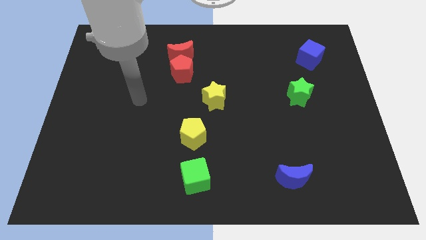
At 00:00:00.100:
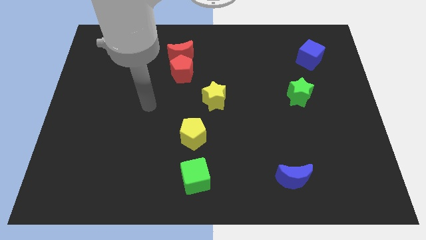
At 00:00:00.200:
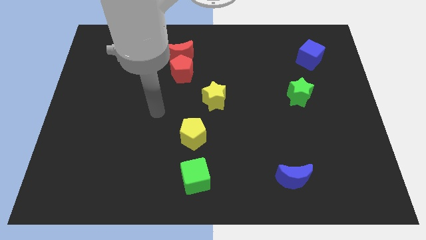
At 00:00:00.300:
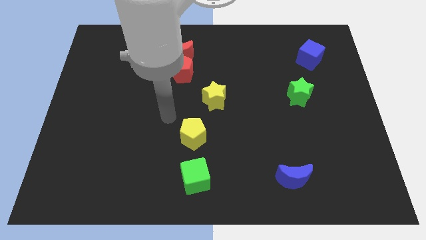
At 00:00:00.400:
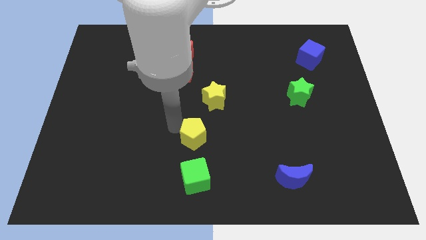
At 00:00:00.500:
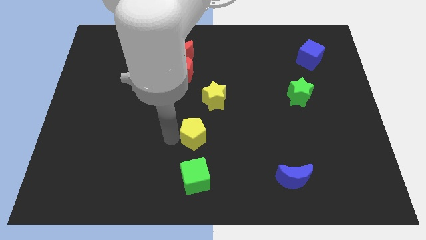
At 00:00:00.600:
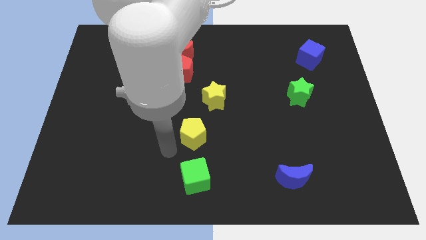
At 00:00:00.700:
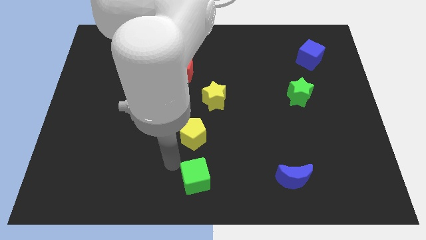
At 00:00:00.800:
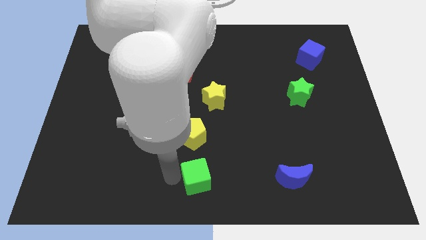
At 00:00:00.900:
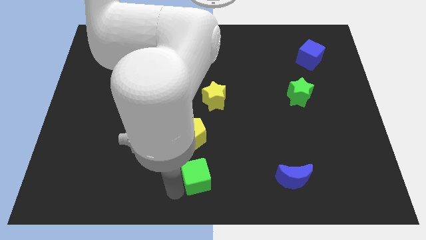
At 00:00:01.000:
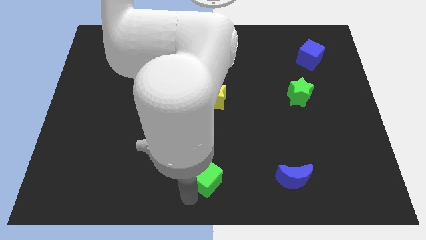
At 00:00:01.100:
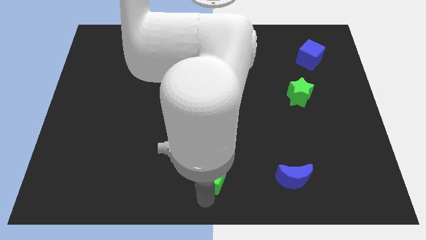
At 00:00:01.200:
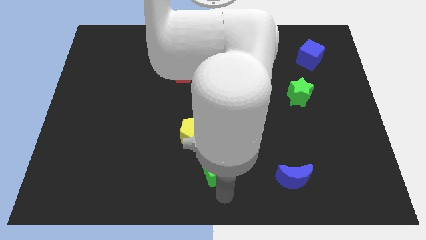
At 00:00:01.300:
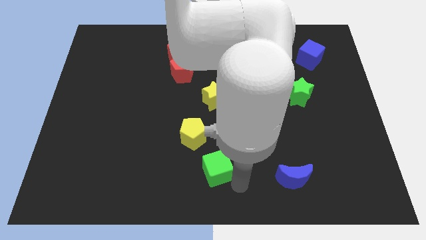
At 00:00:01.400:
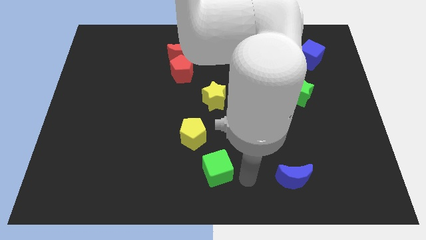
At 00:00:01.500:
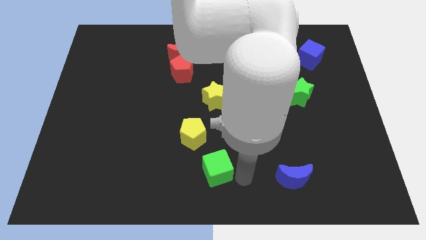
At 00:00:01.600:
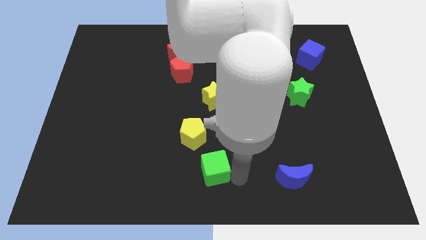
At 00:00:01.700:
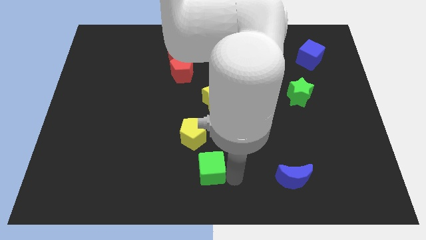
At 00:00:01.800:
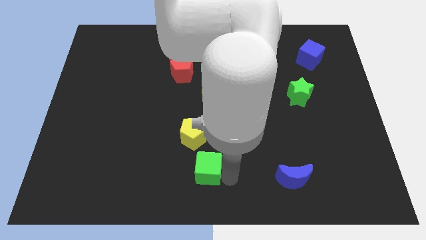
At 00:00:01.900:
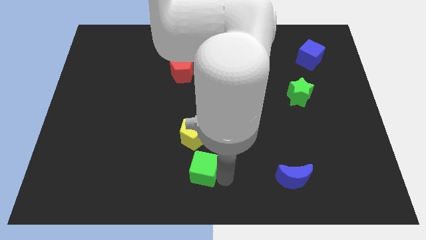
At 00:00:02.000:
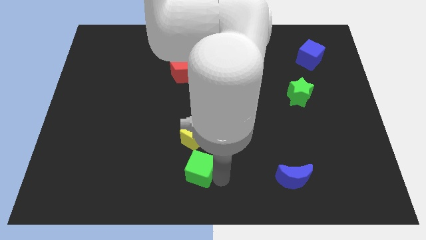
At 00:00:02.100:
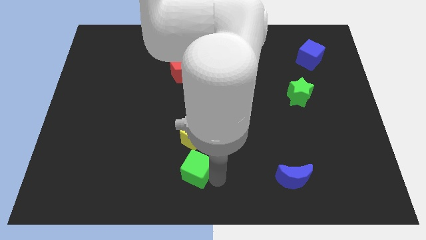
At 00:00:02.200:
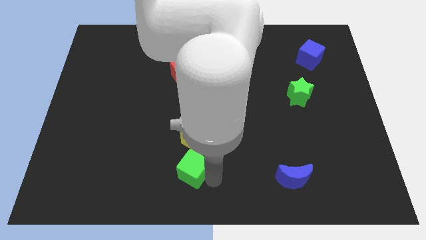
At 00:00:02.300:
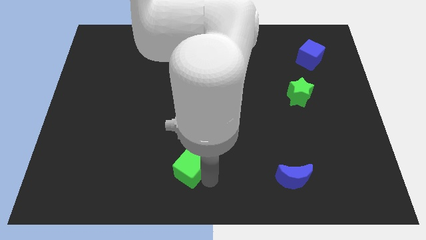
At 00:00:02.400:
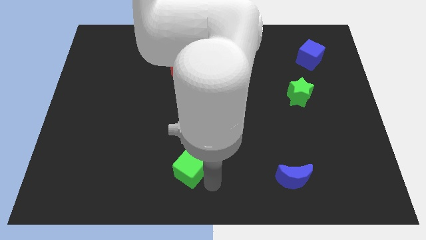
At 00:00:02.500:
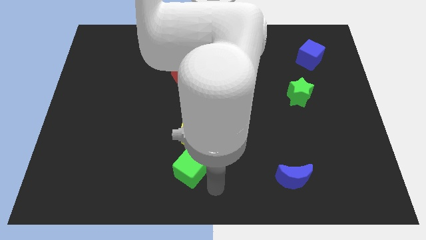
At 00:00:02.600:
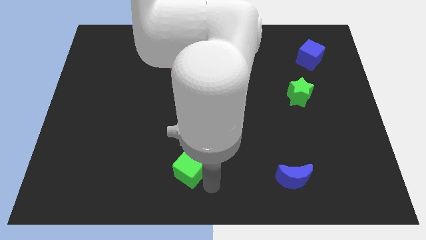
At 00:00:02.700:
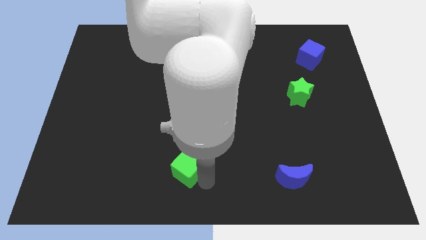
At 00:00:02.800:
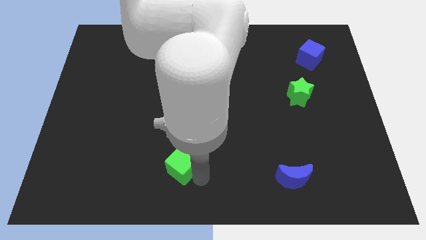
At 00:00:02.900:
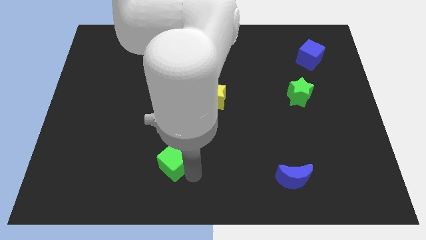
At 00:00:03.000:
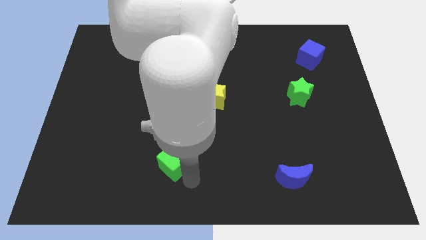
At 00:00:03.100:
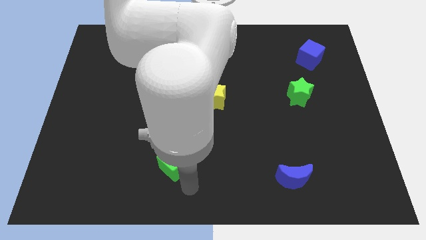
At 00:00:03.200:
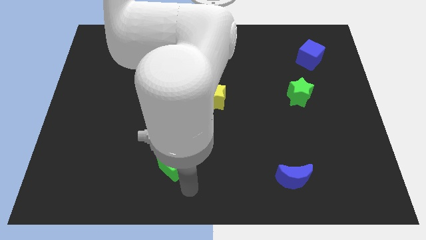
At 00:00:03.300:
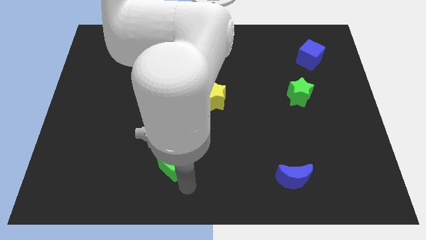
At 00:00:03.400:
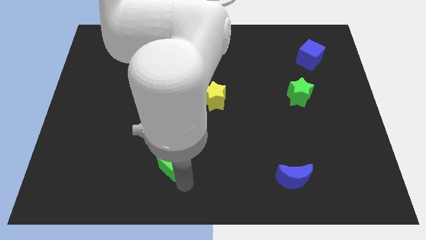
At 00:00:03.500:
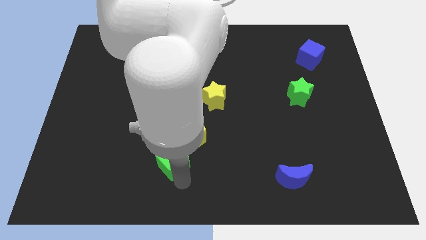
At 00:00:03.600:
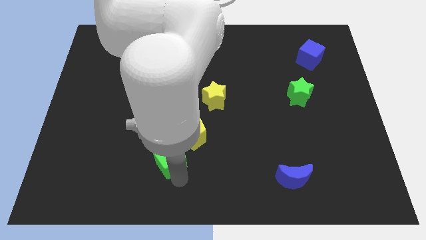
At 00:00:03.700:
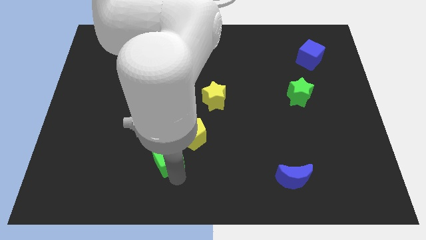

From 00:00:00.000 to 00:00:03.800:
slide the green cube a little upwards and left diagonally

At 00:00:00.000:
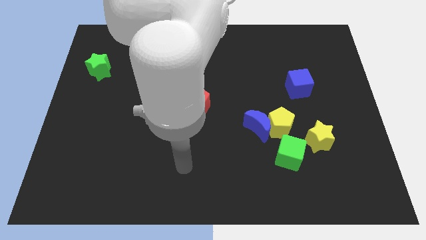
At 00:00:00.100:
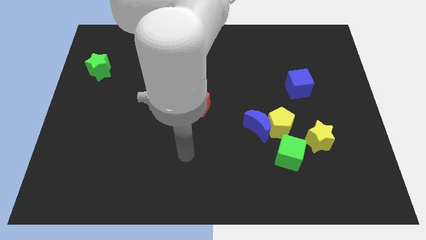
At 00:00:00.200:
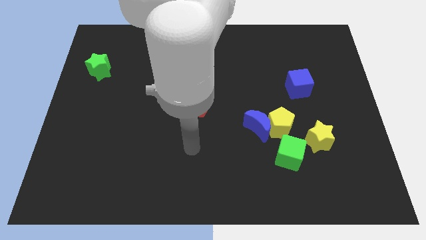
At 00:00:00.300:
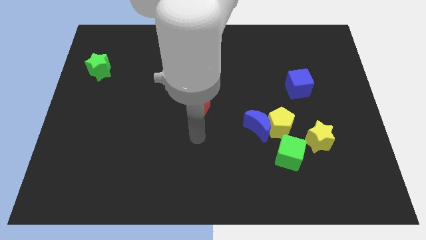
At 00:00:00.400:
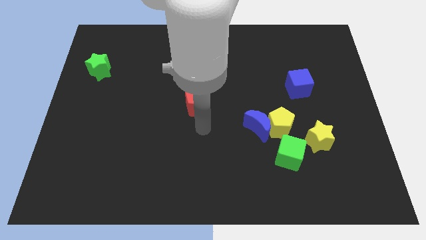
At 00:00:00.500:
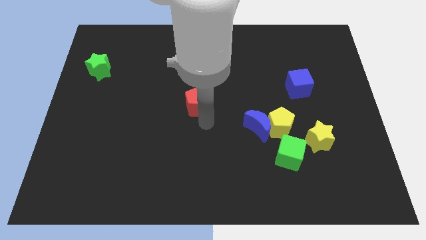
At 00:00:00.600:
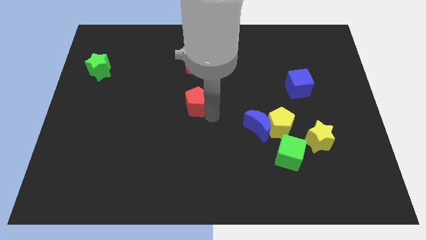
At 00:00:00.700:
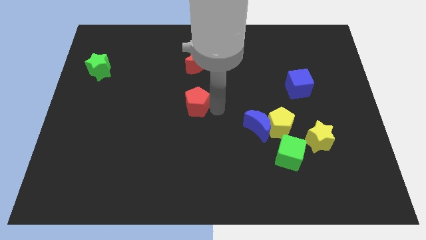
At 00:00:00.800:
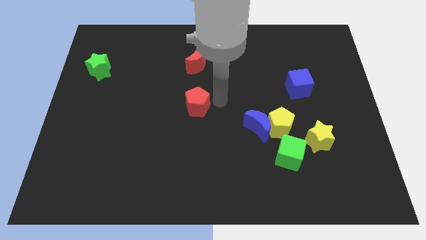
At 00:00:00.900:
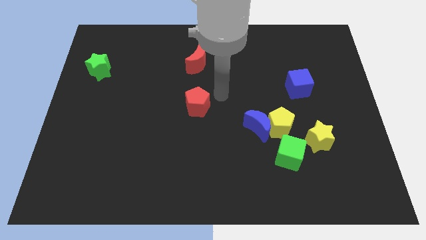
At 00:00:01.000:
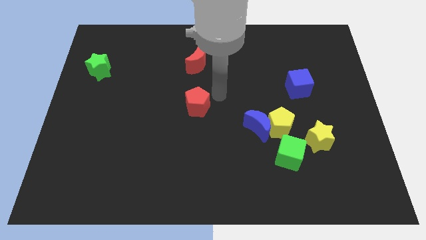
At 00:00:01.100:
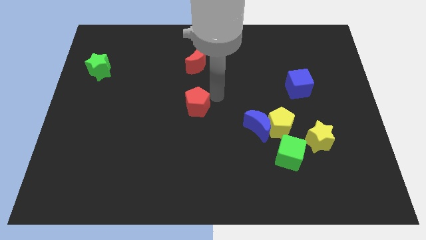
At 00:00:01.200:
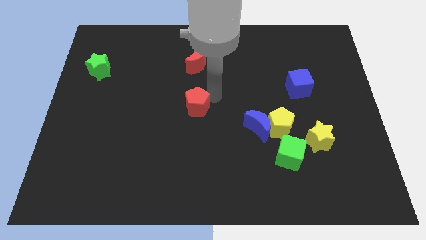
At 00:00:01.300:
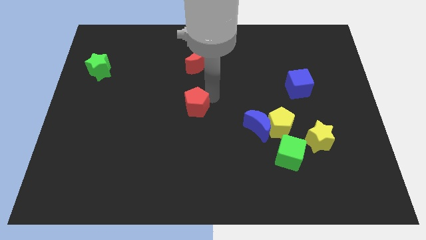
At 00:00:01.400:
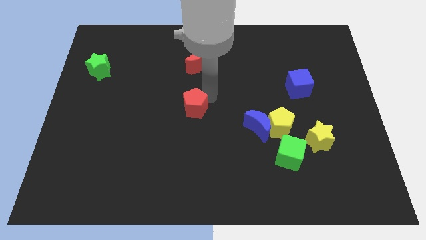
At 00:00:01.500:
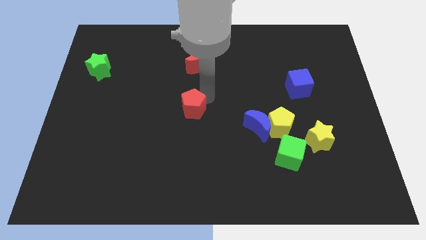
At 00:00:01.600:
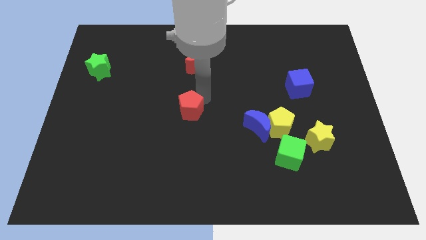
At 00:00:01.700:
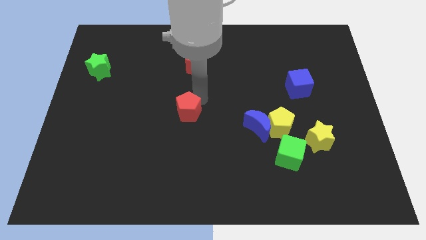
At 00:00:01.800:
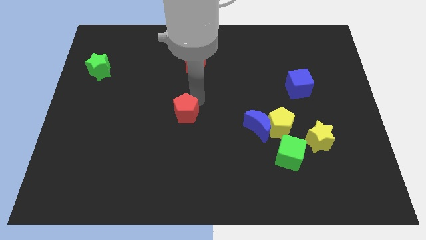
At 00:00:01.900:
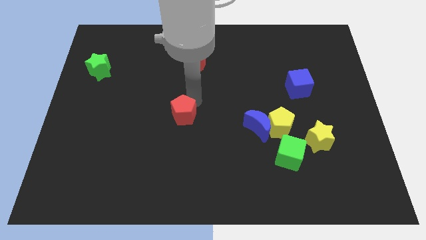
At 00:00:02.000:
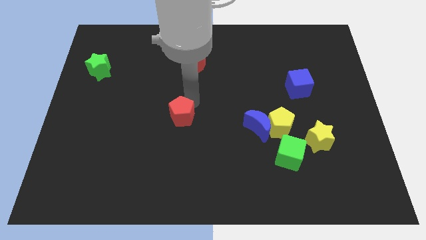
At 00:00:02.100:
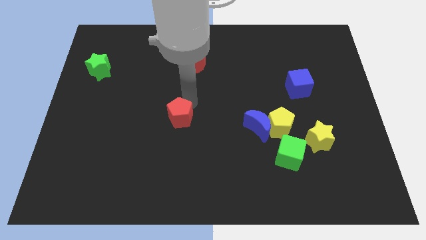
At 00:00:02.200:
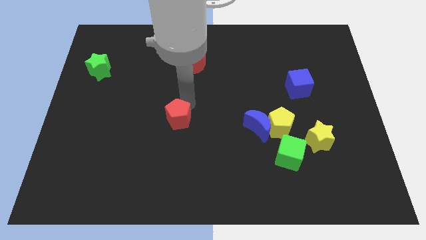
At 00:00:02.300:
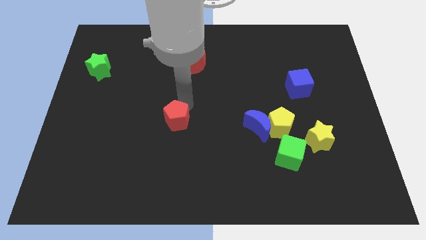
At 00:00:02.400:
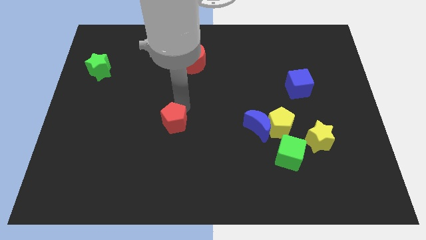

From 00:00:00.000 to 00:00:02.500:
push the red pentagon a little bit down and to the left diagonally

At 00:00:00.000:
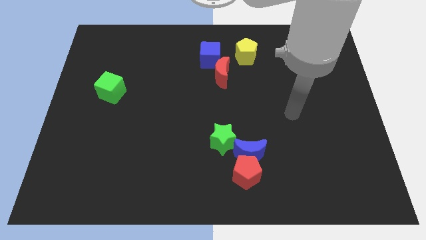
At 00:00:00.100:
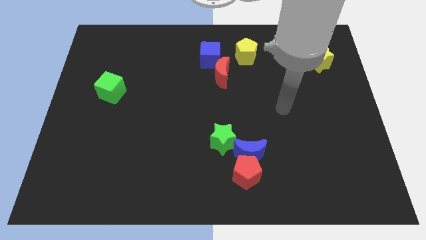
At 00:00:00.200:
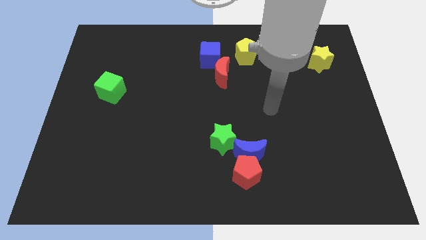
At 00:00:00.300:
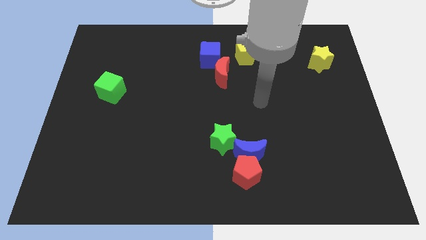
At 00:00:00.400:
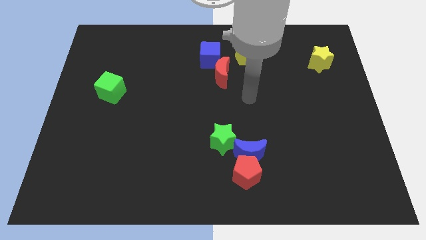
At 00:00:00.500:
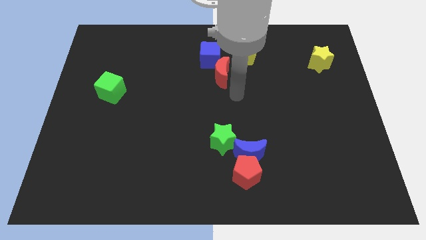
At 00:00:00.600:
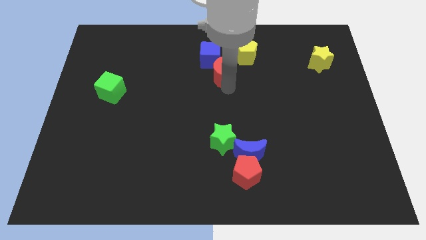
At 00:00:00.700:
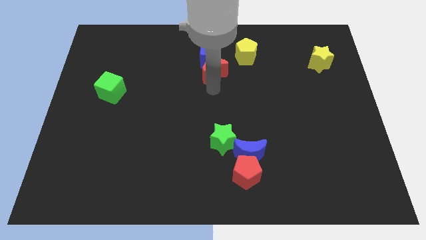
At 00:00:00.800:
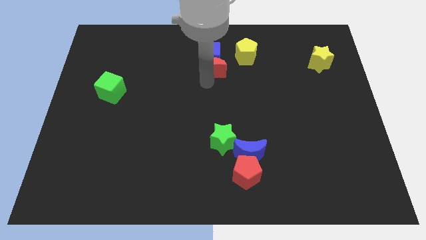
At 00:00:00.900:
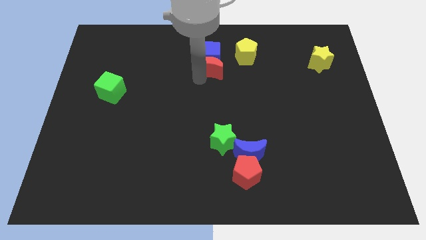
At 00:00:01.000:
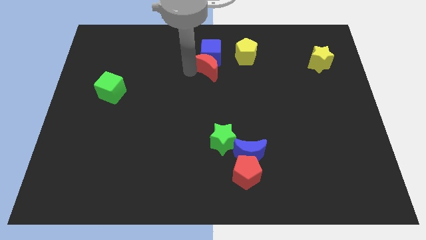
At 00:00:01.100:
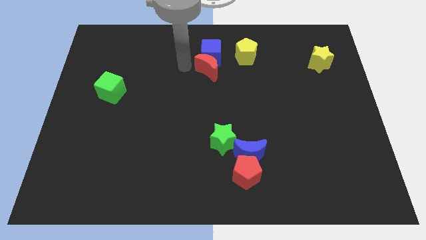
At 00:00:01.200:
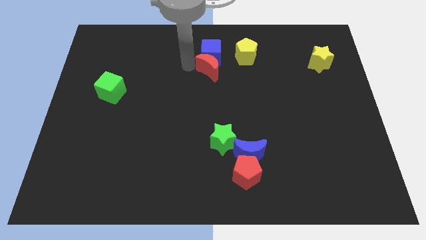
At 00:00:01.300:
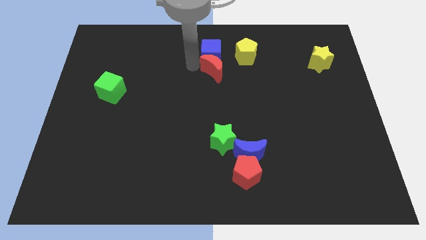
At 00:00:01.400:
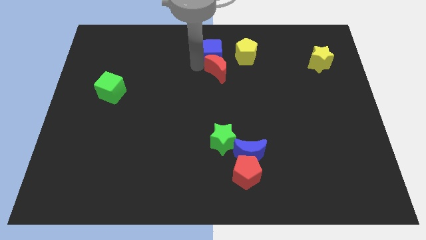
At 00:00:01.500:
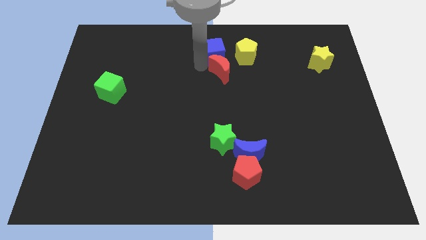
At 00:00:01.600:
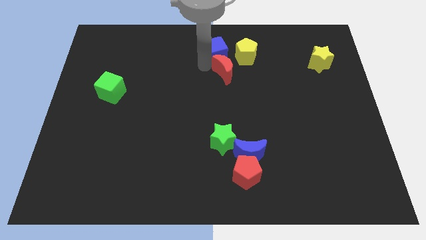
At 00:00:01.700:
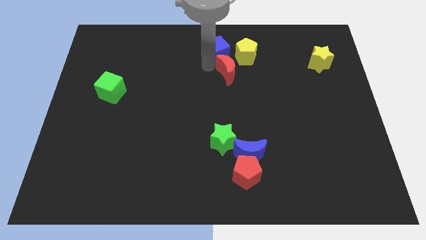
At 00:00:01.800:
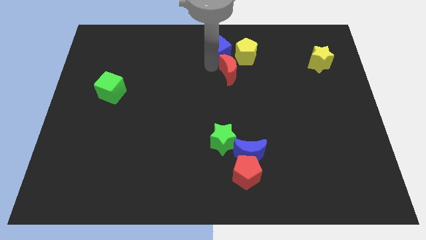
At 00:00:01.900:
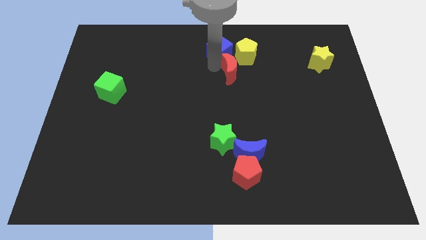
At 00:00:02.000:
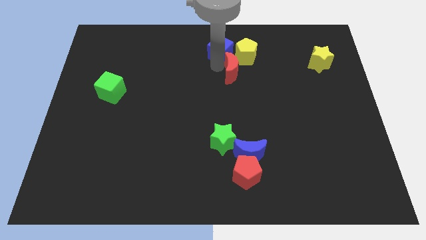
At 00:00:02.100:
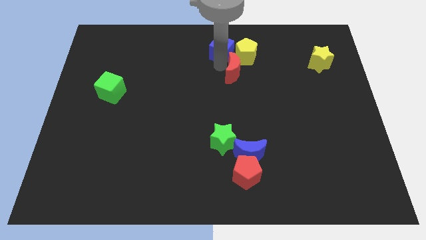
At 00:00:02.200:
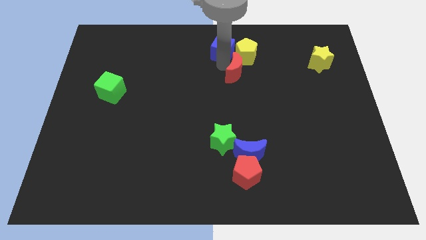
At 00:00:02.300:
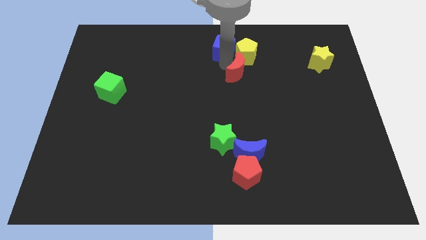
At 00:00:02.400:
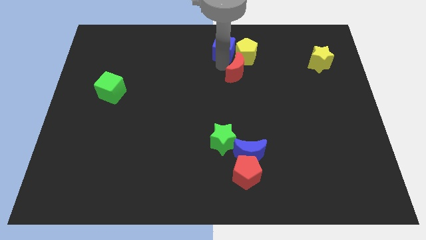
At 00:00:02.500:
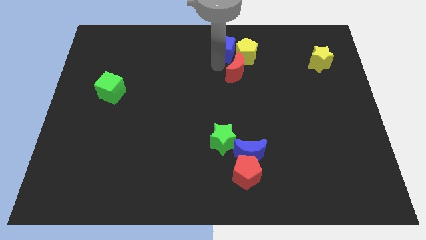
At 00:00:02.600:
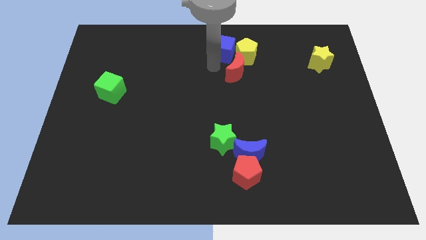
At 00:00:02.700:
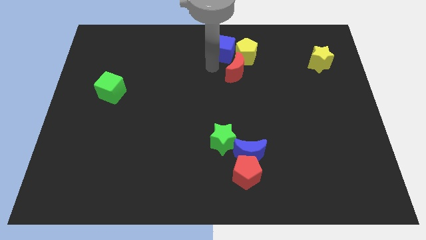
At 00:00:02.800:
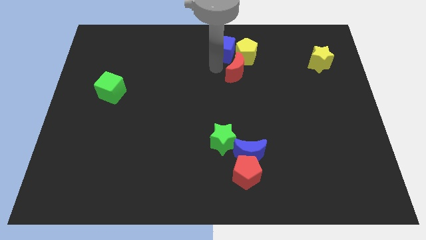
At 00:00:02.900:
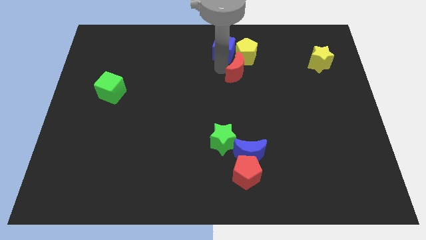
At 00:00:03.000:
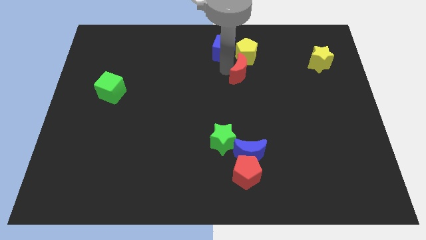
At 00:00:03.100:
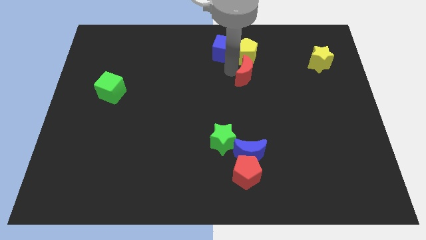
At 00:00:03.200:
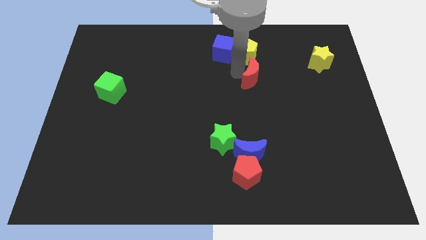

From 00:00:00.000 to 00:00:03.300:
slide the red moon a bit to the right
